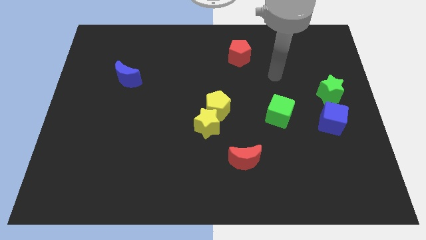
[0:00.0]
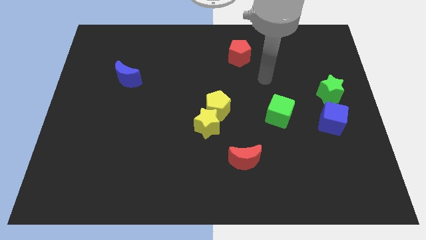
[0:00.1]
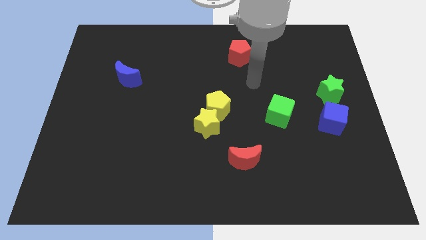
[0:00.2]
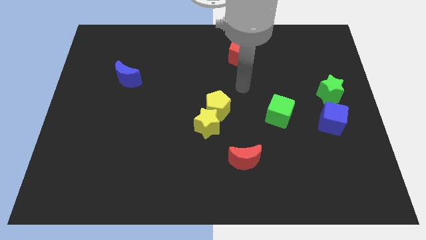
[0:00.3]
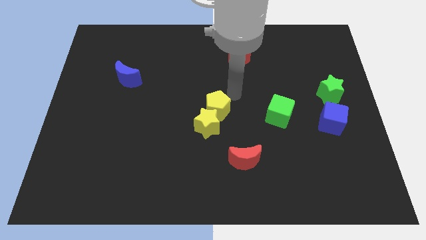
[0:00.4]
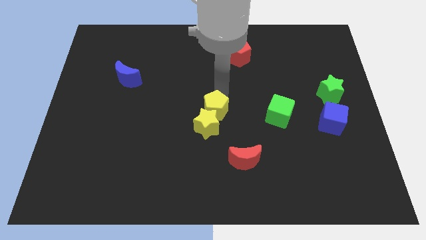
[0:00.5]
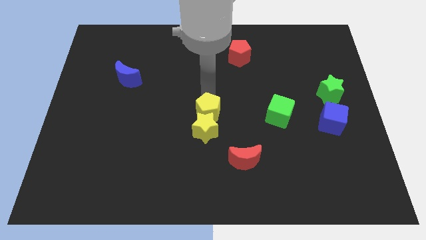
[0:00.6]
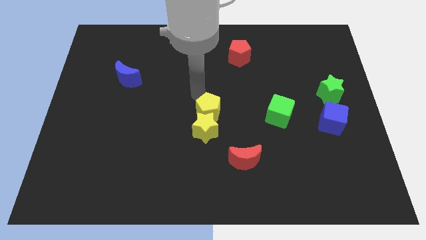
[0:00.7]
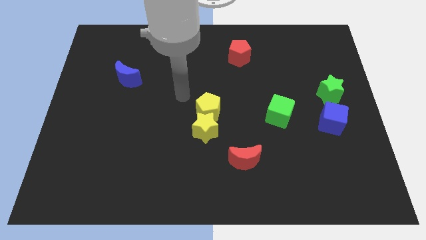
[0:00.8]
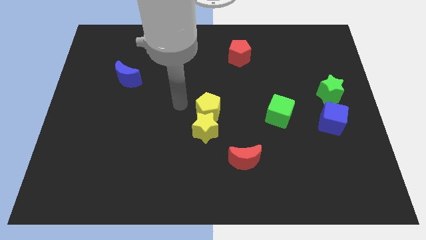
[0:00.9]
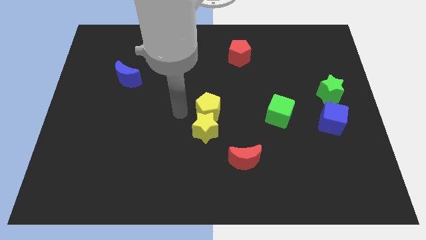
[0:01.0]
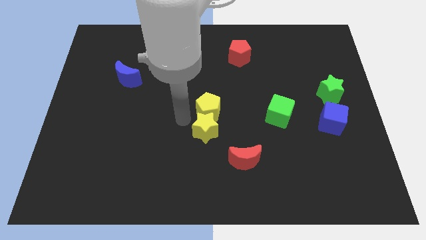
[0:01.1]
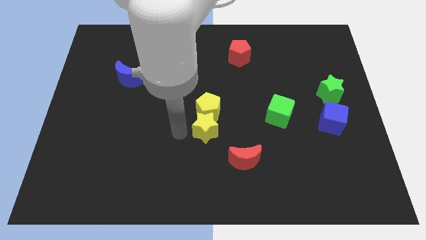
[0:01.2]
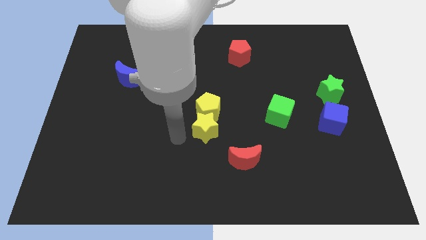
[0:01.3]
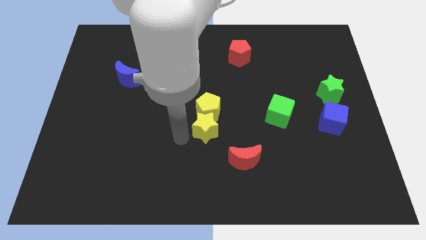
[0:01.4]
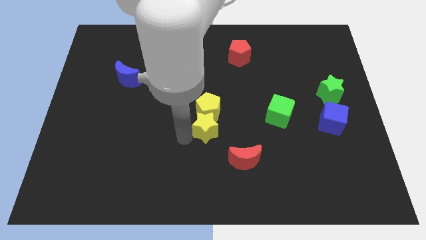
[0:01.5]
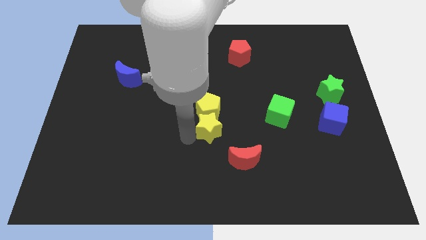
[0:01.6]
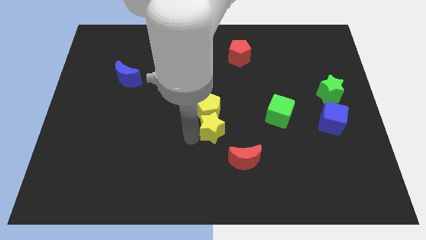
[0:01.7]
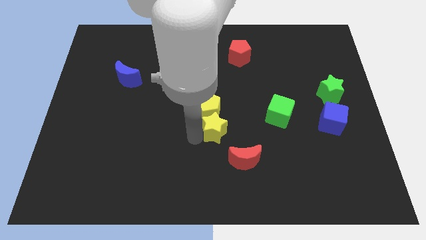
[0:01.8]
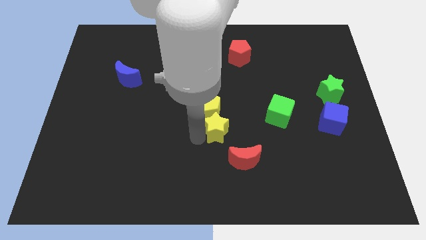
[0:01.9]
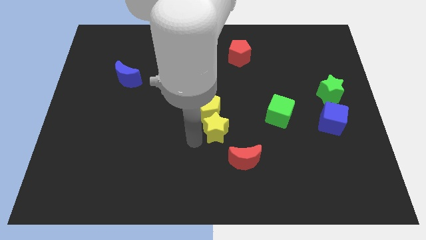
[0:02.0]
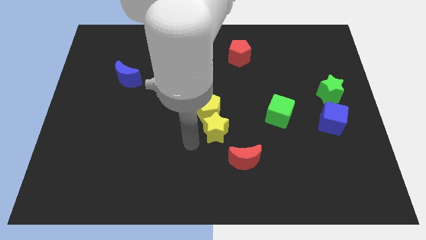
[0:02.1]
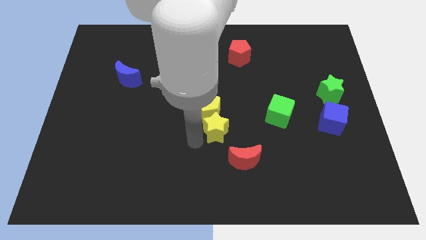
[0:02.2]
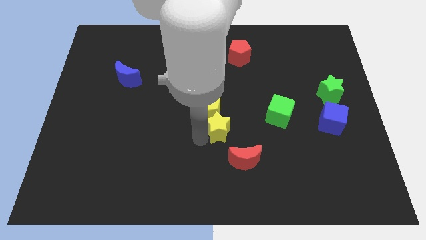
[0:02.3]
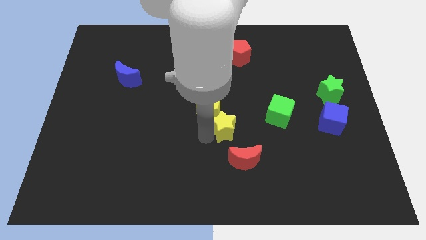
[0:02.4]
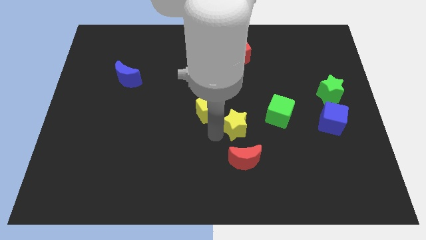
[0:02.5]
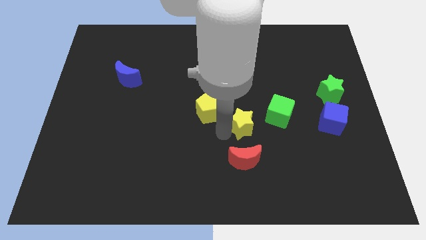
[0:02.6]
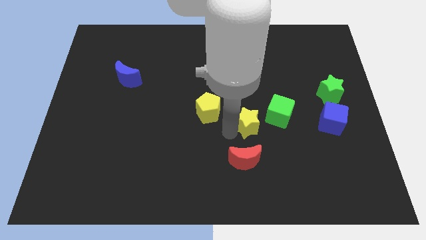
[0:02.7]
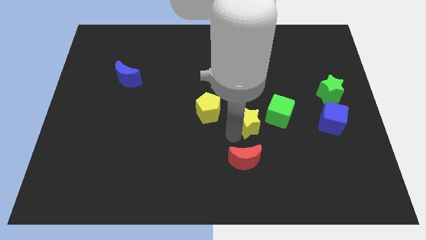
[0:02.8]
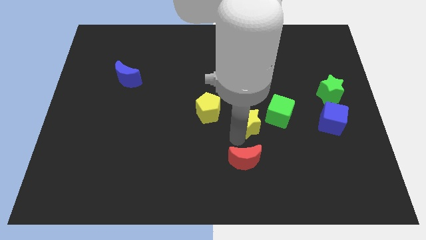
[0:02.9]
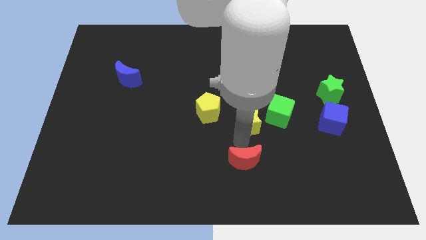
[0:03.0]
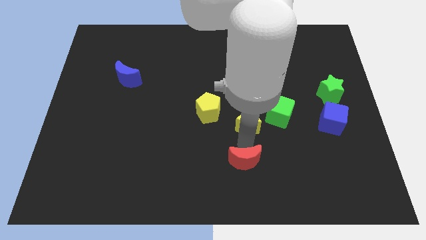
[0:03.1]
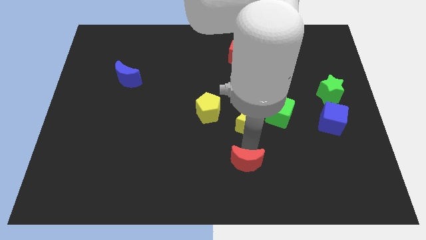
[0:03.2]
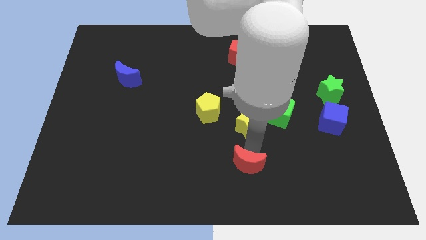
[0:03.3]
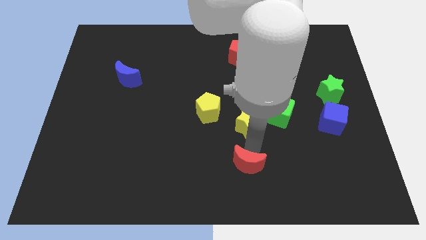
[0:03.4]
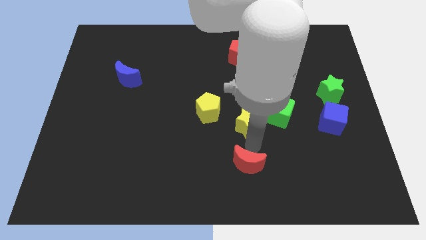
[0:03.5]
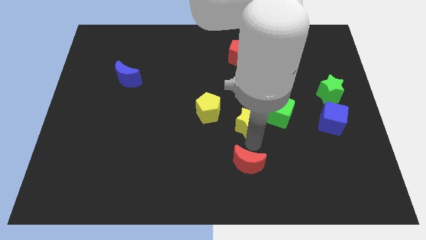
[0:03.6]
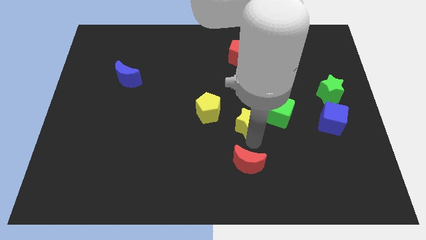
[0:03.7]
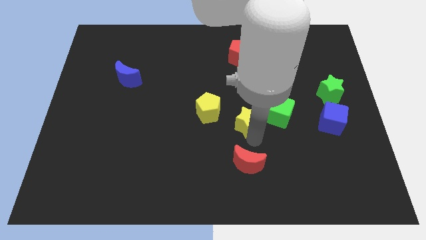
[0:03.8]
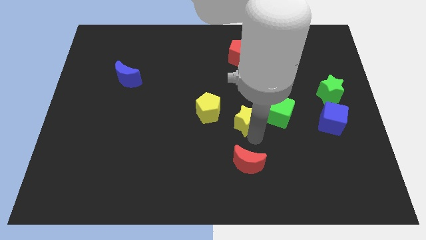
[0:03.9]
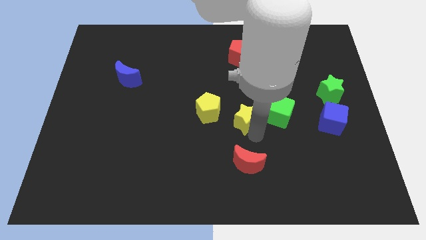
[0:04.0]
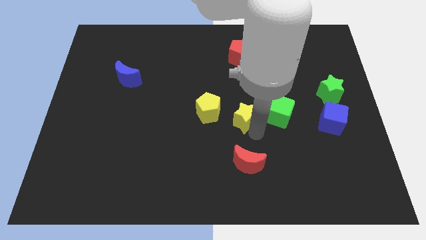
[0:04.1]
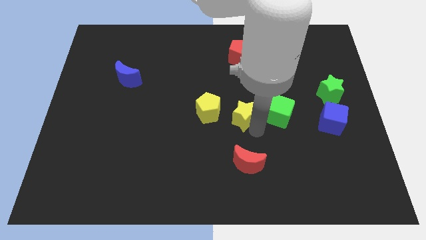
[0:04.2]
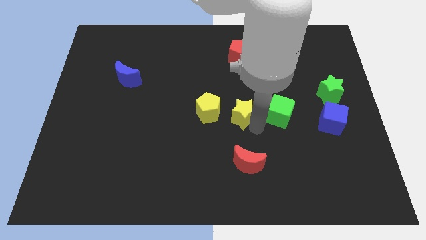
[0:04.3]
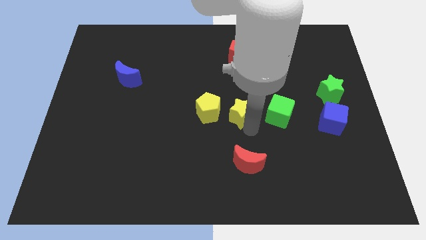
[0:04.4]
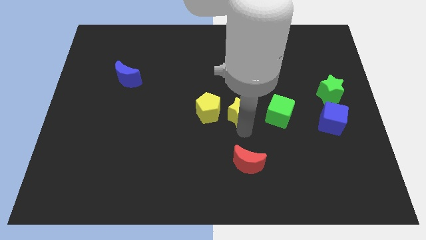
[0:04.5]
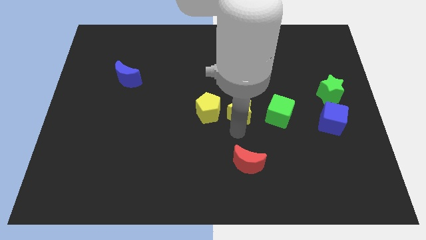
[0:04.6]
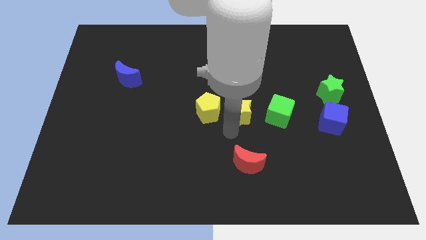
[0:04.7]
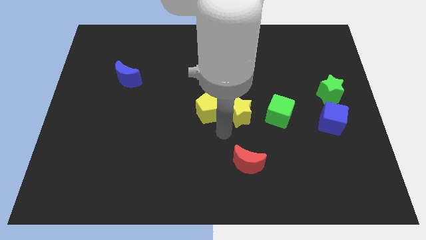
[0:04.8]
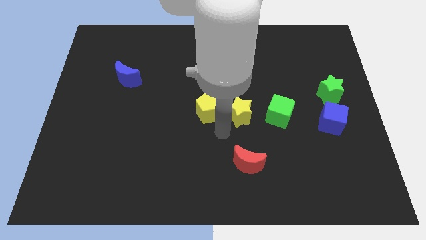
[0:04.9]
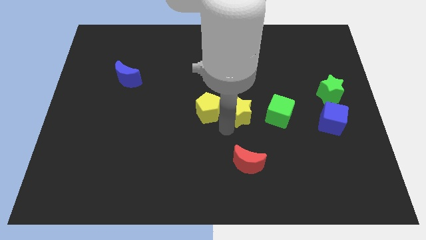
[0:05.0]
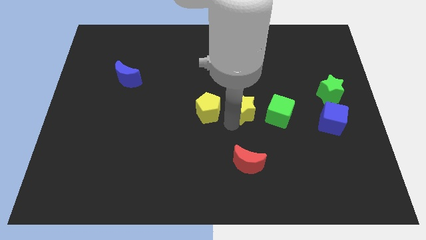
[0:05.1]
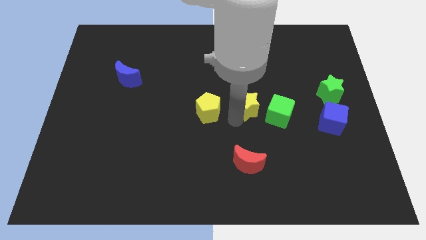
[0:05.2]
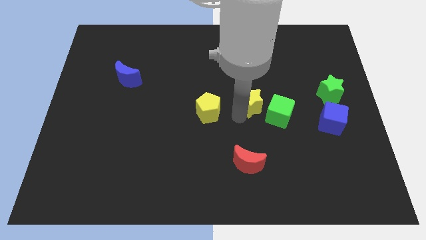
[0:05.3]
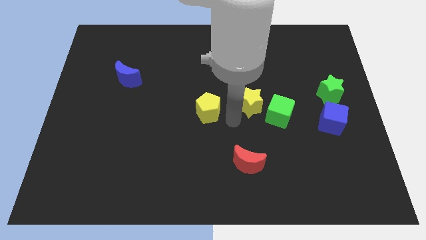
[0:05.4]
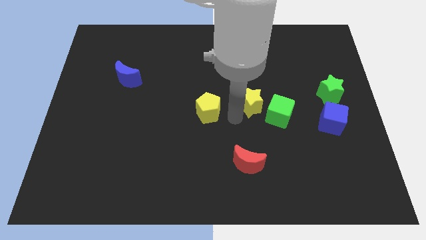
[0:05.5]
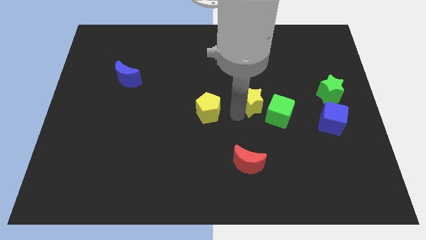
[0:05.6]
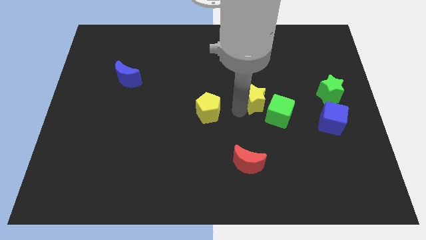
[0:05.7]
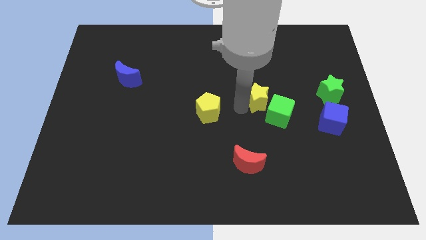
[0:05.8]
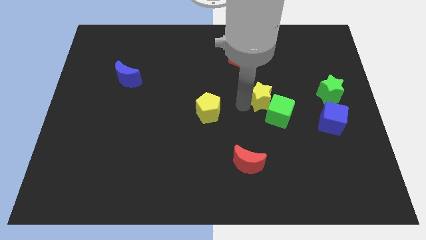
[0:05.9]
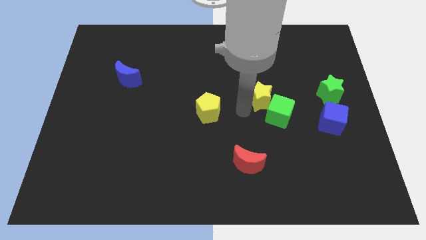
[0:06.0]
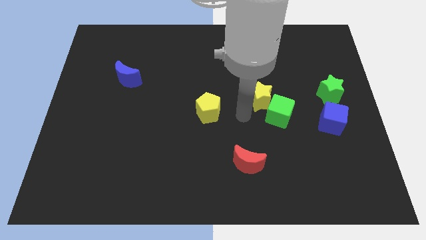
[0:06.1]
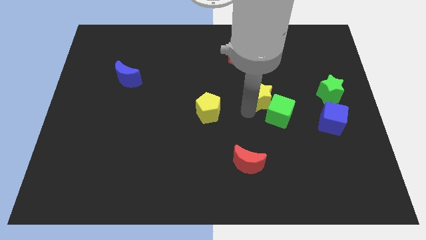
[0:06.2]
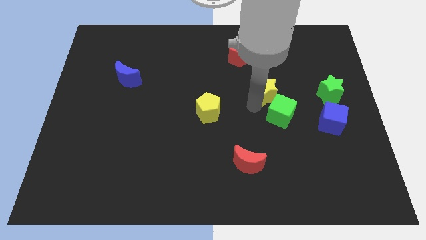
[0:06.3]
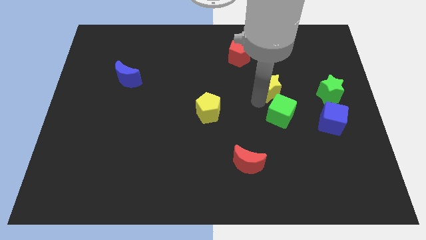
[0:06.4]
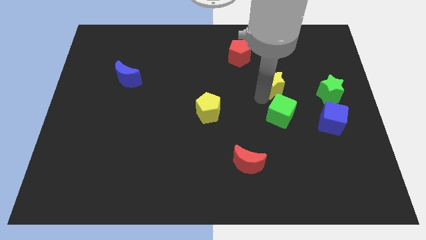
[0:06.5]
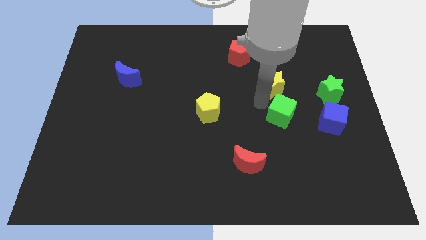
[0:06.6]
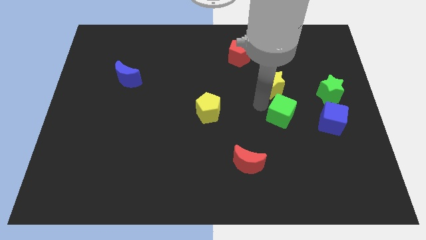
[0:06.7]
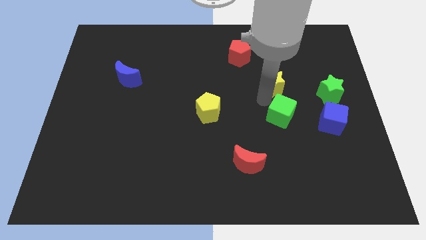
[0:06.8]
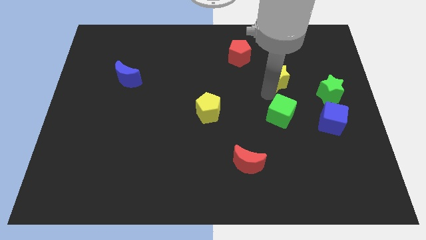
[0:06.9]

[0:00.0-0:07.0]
slide the yellow star up and then to the right

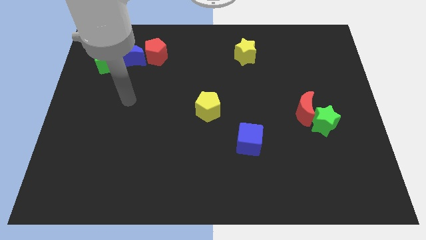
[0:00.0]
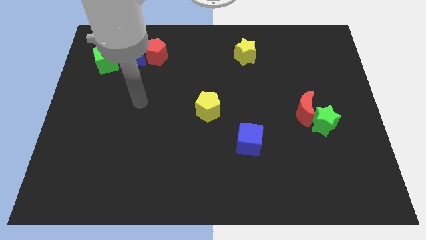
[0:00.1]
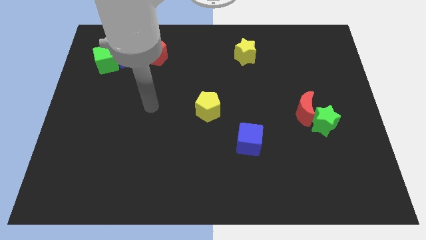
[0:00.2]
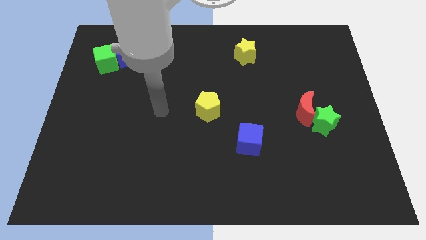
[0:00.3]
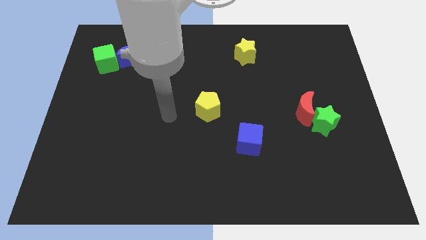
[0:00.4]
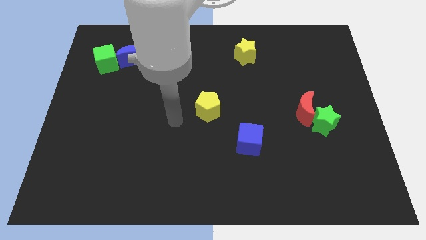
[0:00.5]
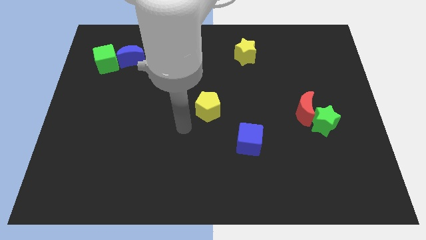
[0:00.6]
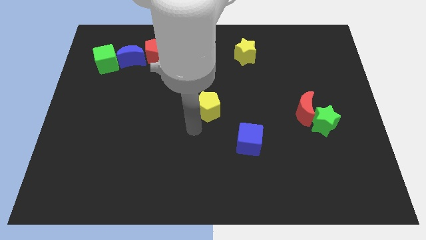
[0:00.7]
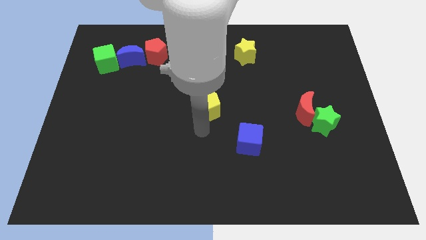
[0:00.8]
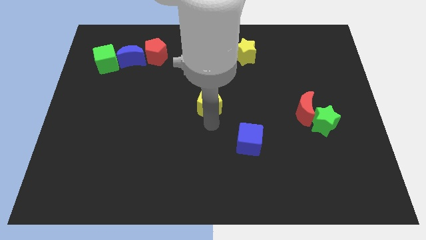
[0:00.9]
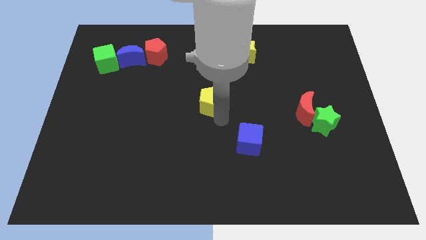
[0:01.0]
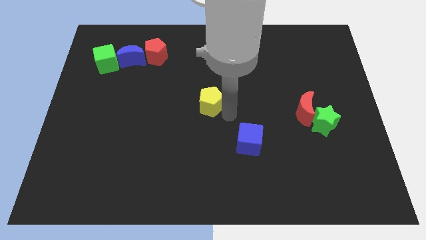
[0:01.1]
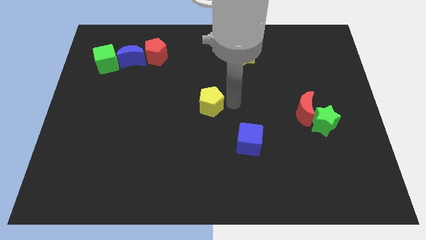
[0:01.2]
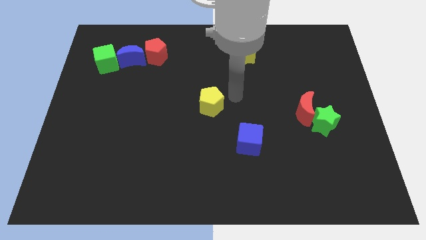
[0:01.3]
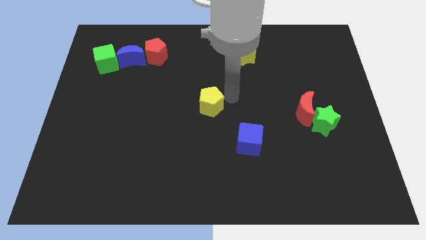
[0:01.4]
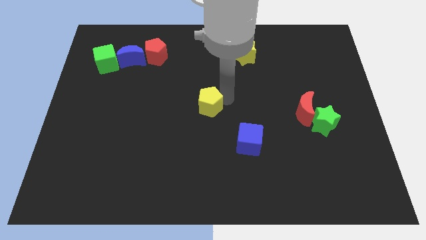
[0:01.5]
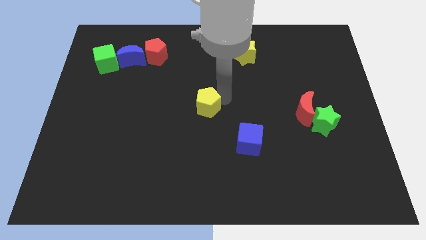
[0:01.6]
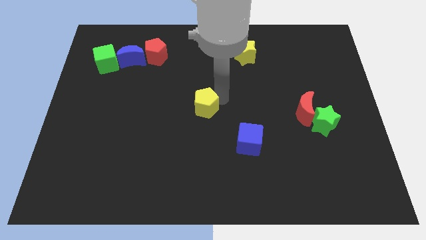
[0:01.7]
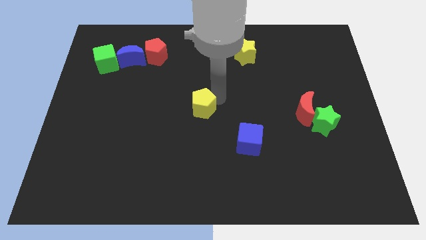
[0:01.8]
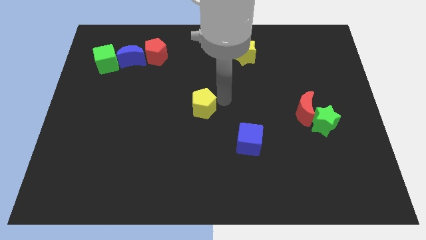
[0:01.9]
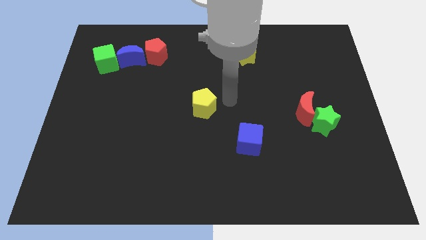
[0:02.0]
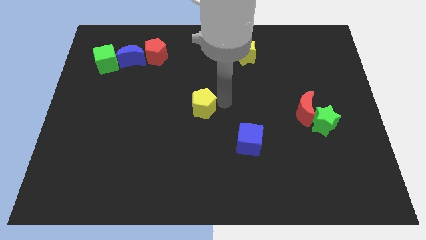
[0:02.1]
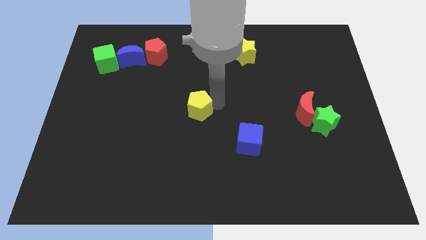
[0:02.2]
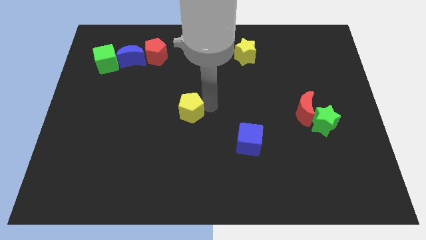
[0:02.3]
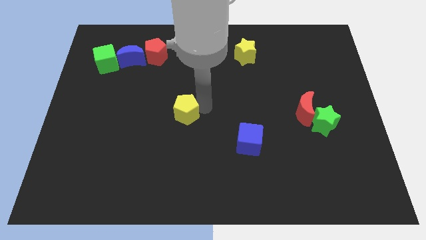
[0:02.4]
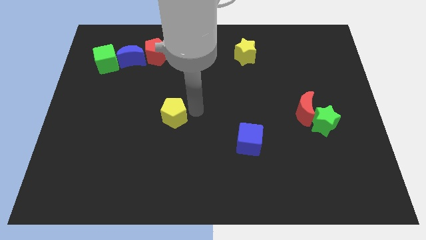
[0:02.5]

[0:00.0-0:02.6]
move the yellow pentagon somewhat left
